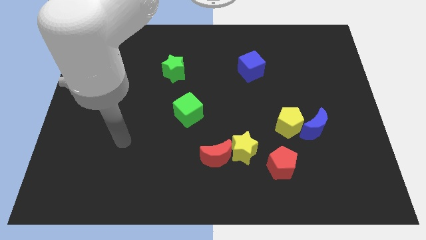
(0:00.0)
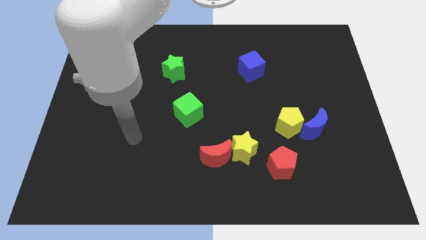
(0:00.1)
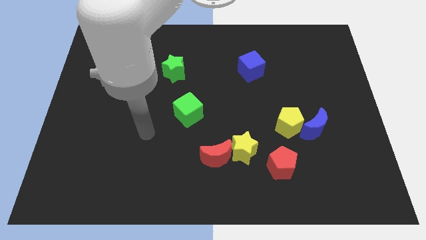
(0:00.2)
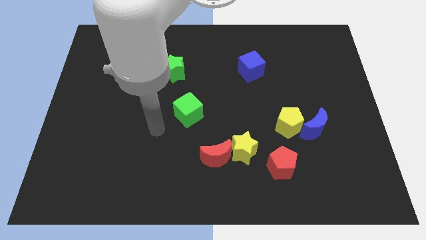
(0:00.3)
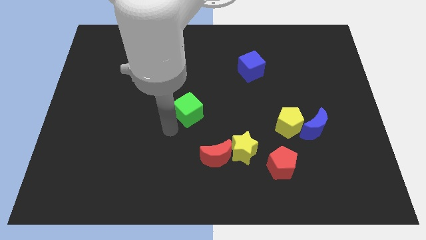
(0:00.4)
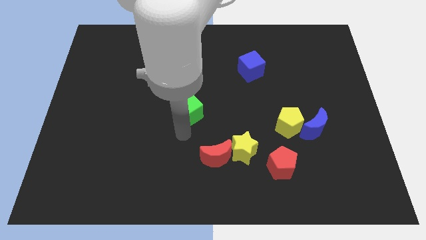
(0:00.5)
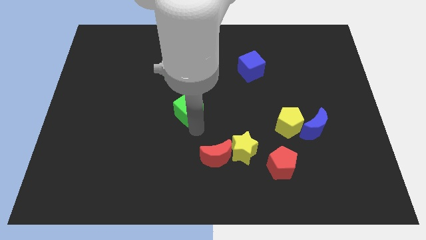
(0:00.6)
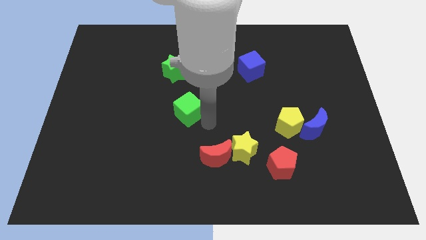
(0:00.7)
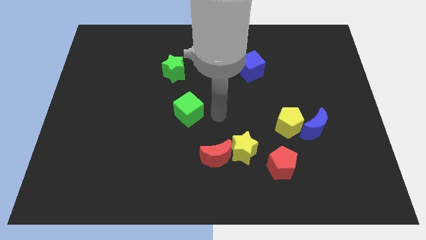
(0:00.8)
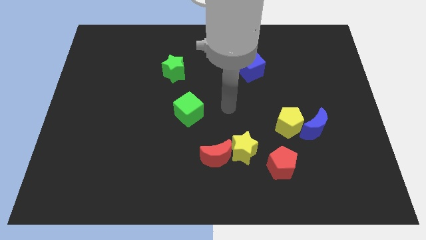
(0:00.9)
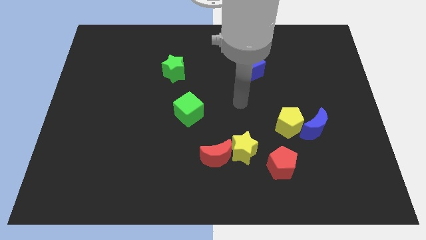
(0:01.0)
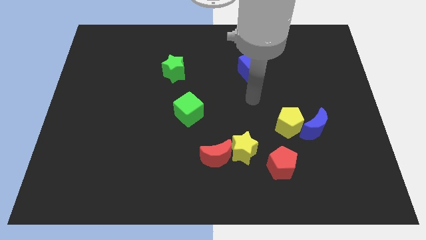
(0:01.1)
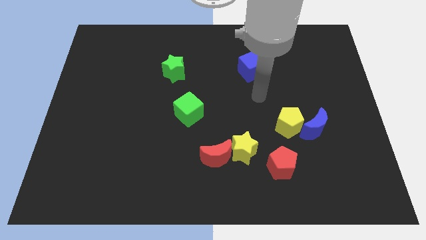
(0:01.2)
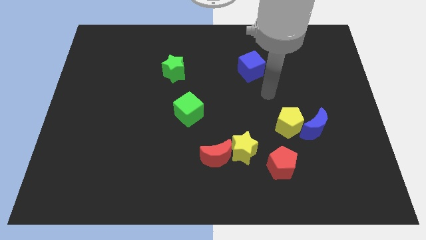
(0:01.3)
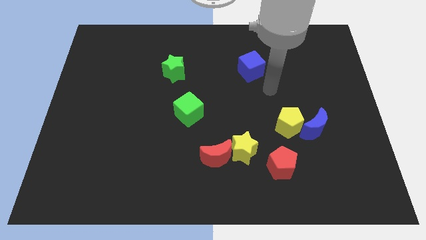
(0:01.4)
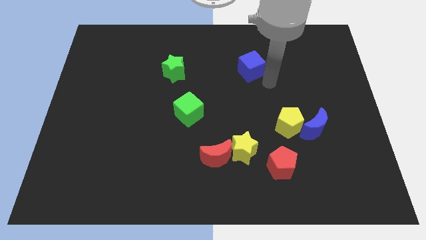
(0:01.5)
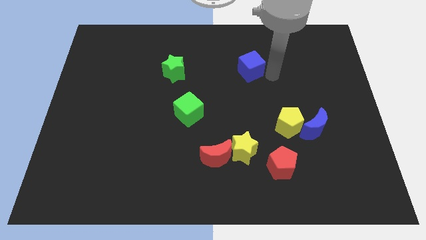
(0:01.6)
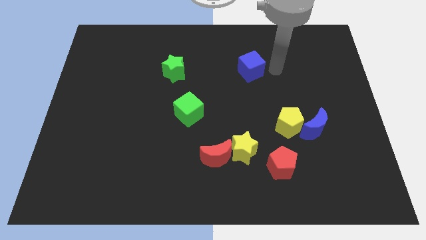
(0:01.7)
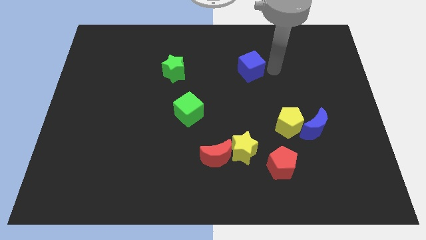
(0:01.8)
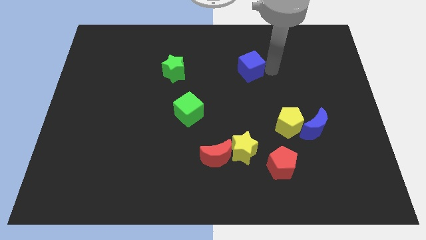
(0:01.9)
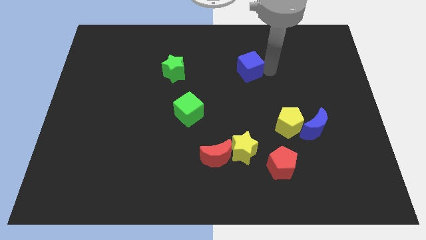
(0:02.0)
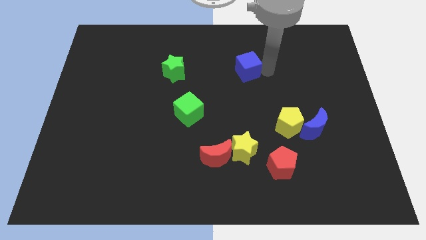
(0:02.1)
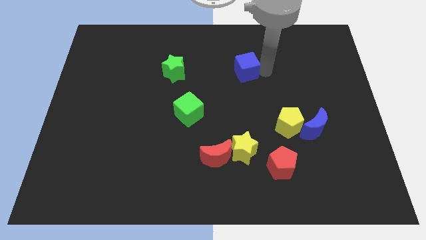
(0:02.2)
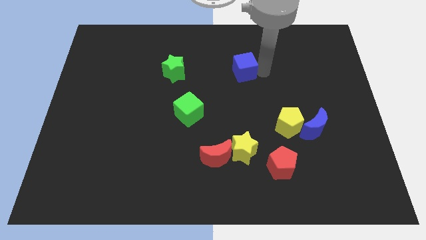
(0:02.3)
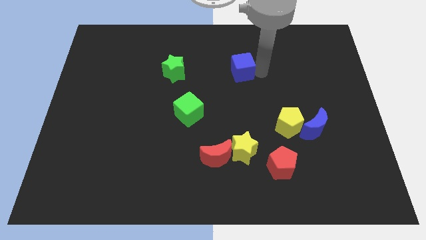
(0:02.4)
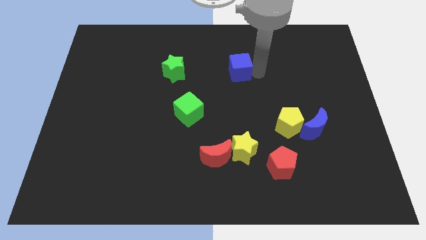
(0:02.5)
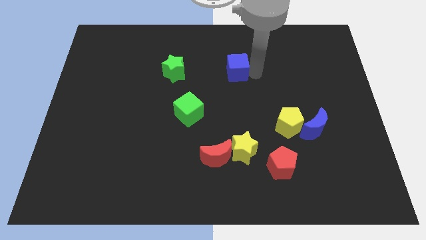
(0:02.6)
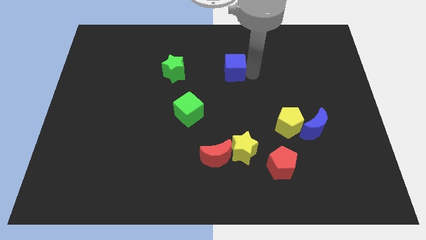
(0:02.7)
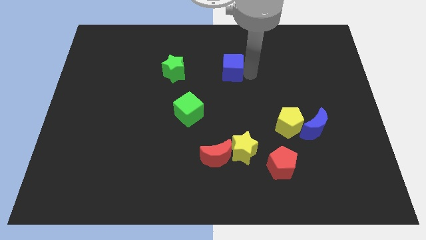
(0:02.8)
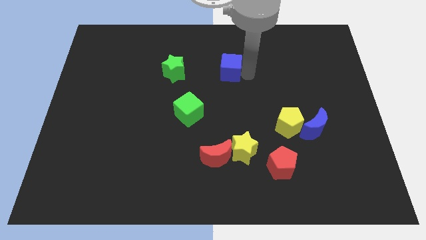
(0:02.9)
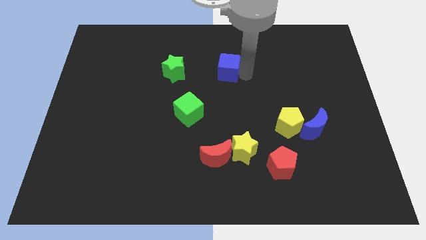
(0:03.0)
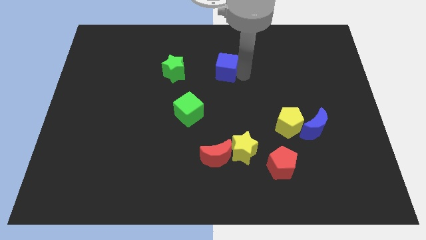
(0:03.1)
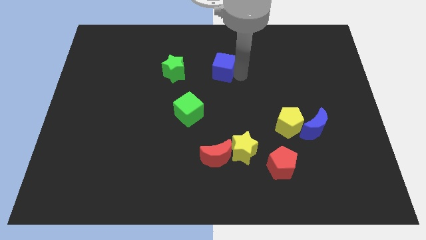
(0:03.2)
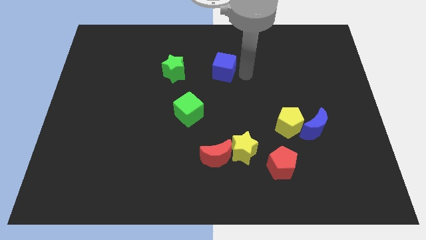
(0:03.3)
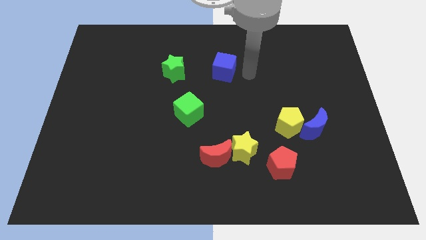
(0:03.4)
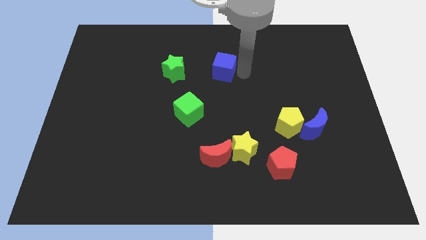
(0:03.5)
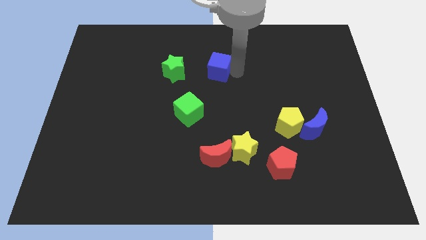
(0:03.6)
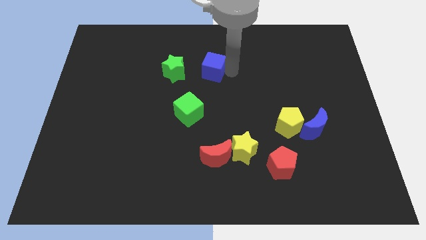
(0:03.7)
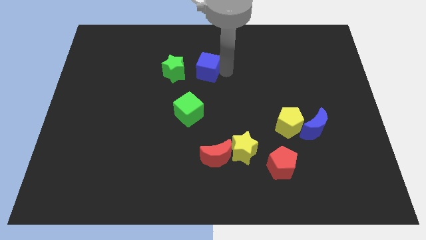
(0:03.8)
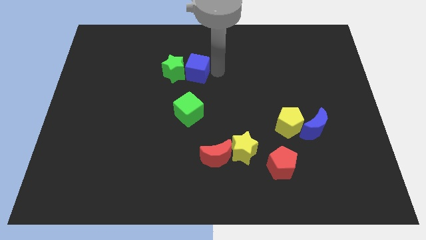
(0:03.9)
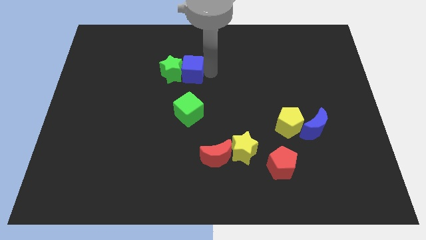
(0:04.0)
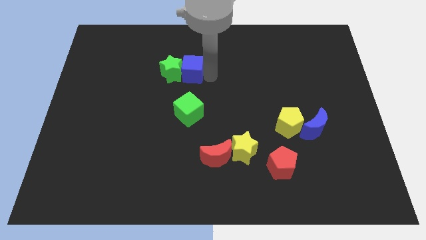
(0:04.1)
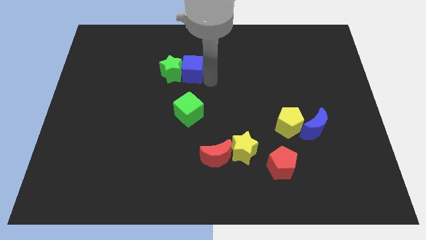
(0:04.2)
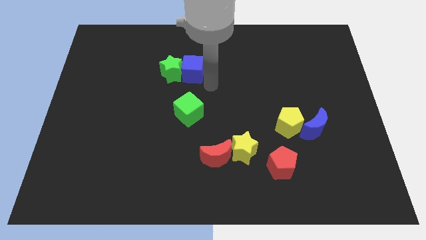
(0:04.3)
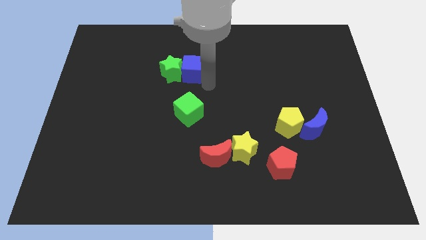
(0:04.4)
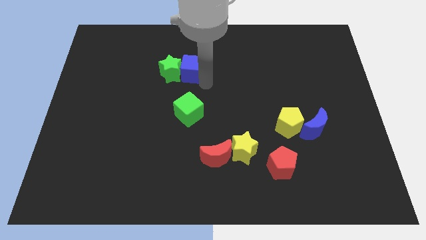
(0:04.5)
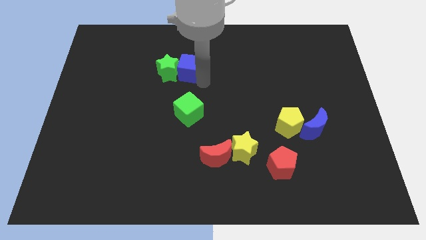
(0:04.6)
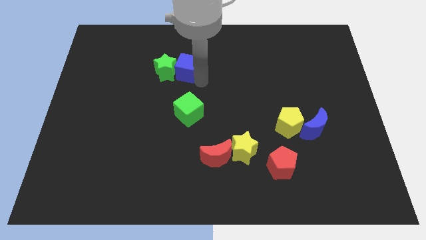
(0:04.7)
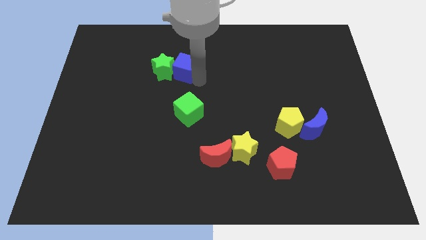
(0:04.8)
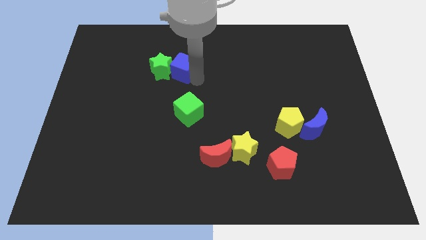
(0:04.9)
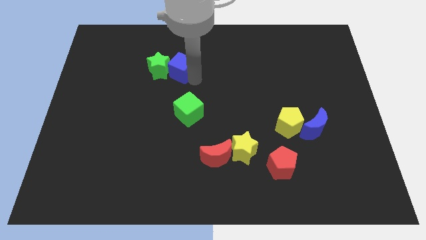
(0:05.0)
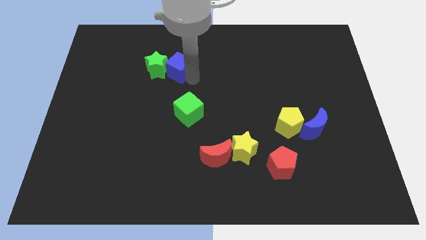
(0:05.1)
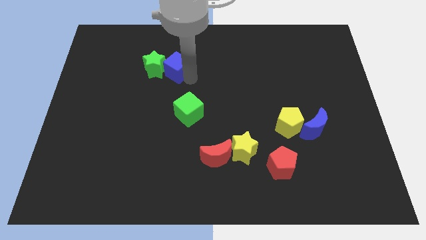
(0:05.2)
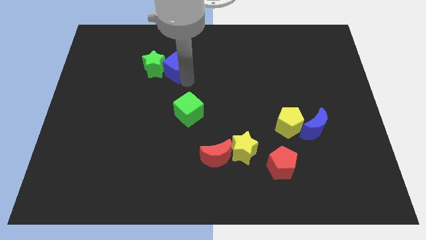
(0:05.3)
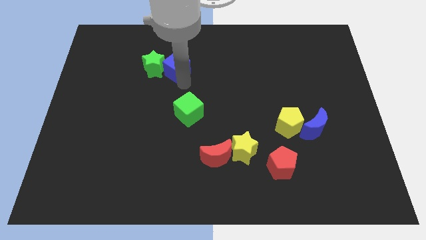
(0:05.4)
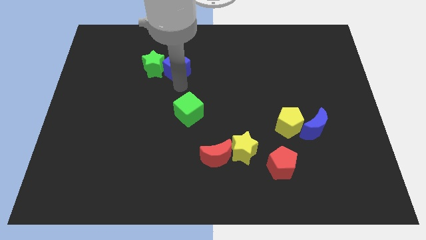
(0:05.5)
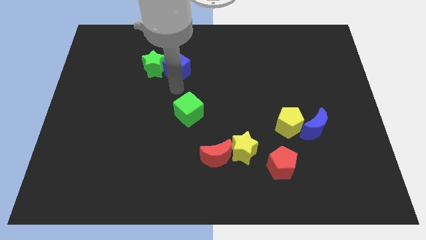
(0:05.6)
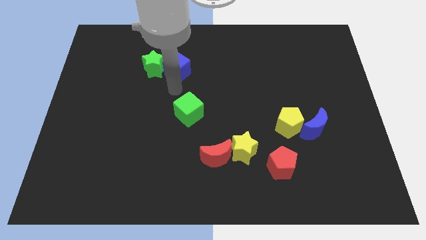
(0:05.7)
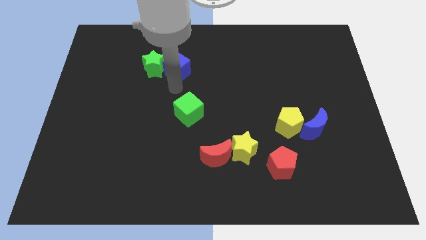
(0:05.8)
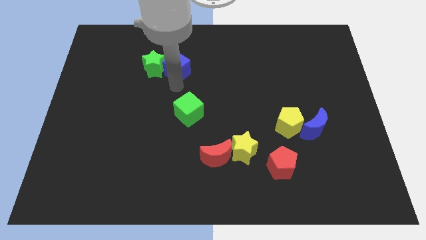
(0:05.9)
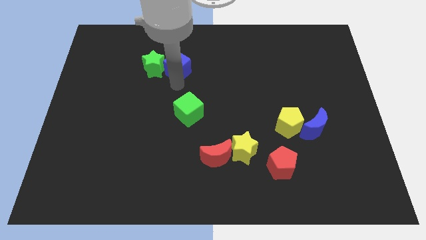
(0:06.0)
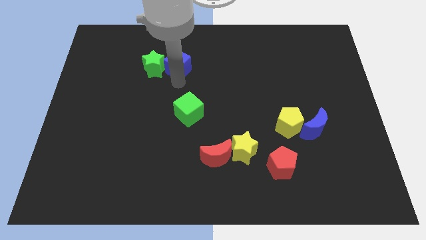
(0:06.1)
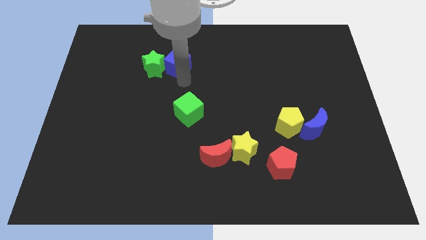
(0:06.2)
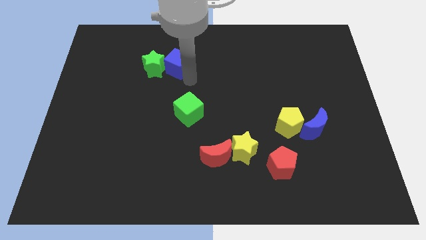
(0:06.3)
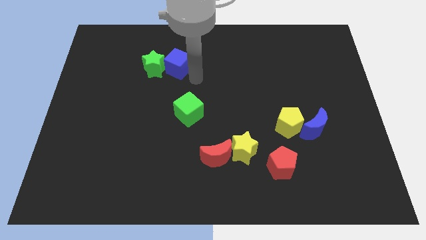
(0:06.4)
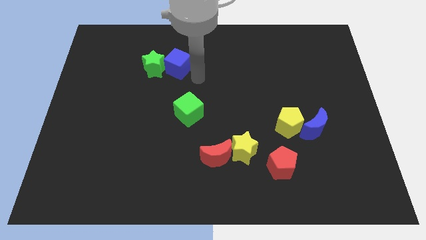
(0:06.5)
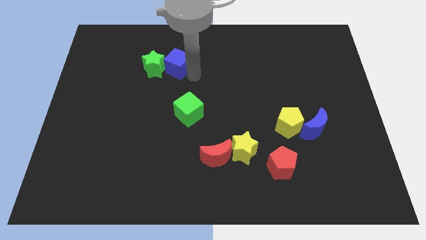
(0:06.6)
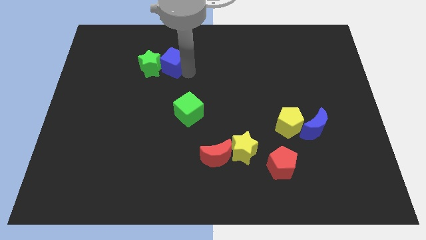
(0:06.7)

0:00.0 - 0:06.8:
push the blue cube to the left

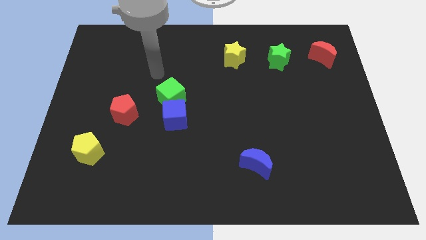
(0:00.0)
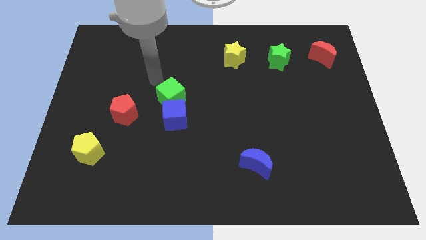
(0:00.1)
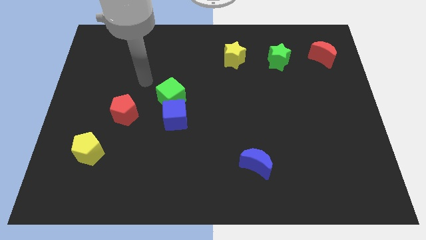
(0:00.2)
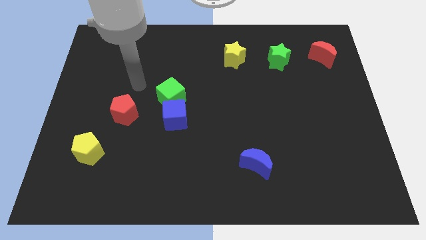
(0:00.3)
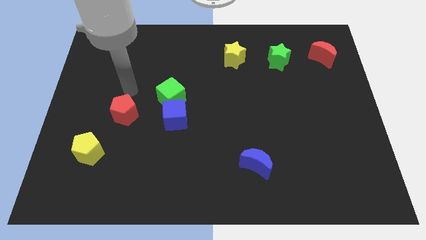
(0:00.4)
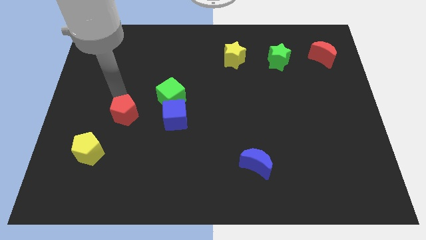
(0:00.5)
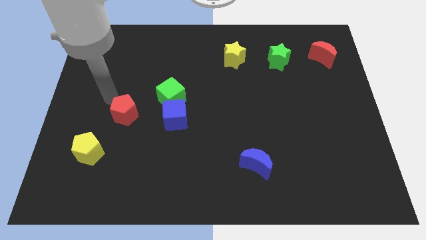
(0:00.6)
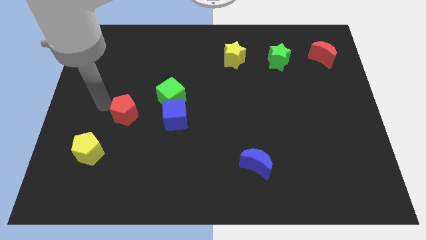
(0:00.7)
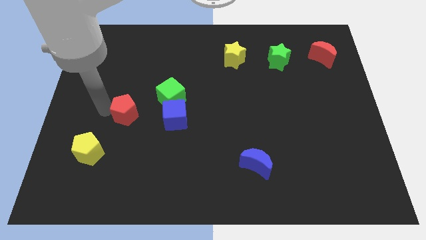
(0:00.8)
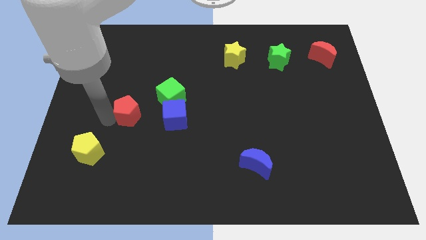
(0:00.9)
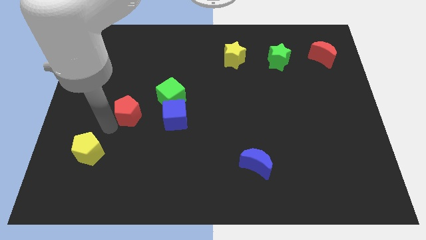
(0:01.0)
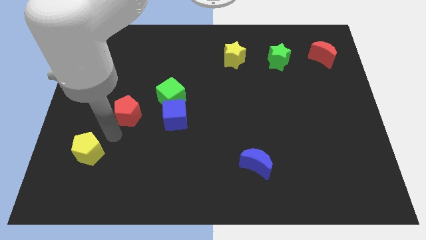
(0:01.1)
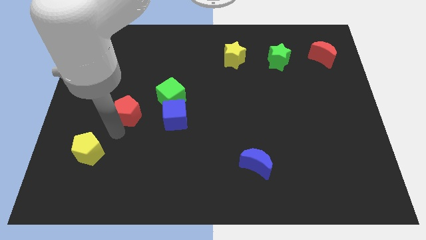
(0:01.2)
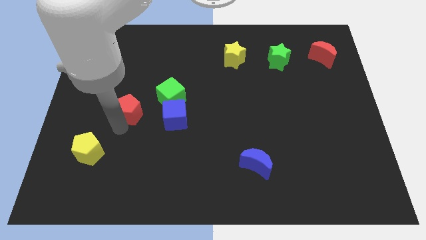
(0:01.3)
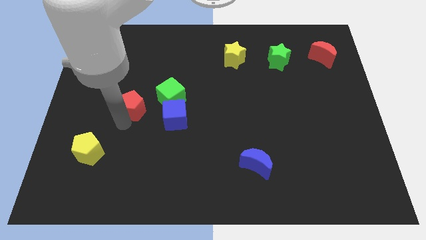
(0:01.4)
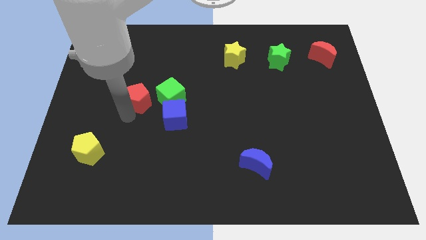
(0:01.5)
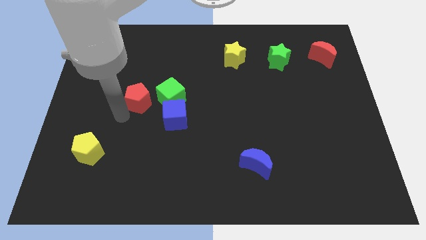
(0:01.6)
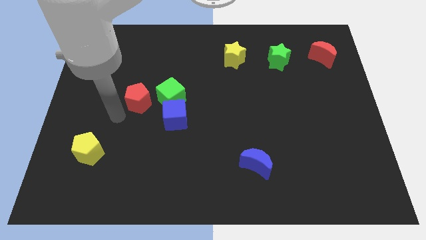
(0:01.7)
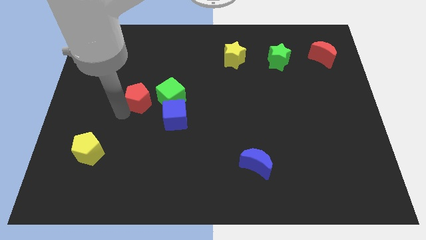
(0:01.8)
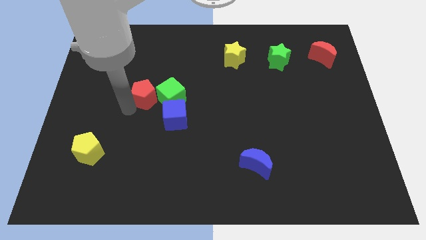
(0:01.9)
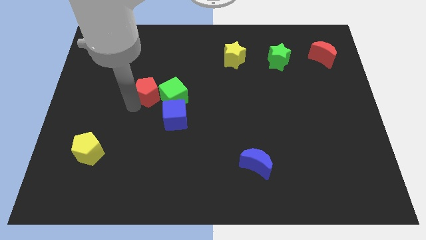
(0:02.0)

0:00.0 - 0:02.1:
move the red pentagon somewhat upwards and to the right
